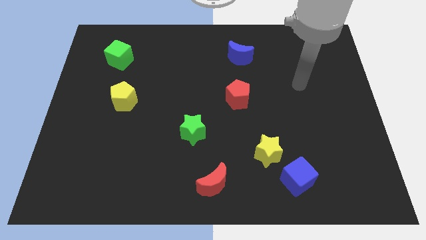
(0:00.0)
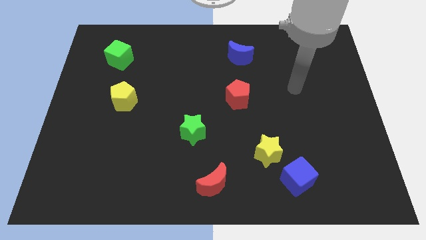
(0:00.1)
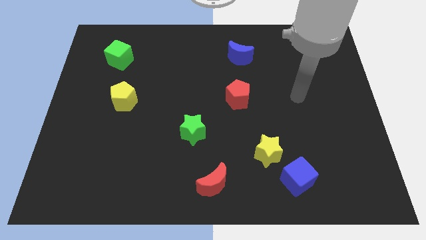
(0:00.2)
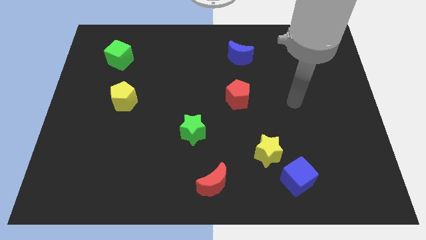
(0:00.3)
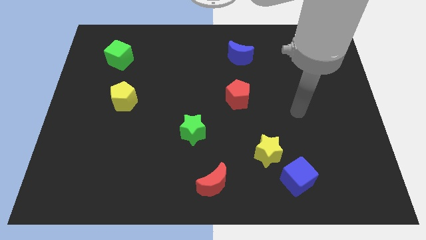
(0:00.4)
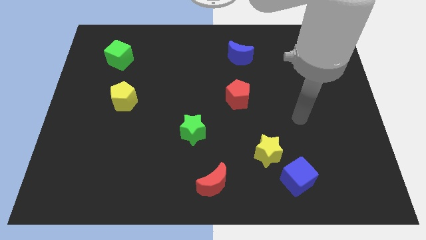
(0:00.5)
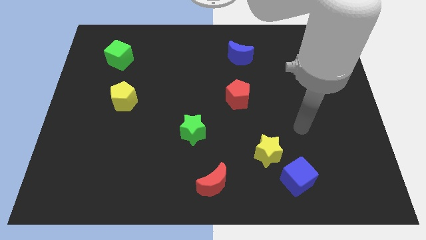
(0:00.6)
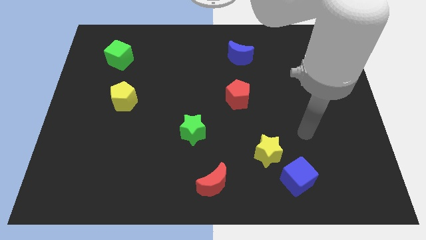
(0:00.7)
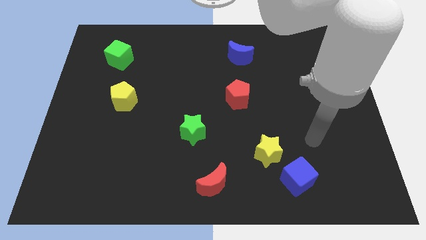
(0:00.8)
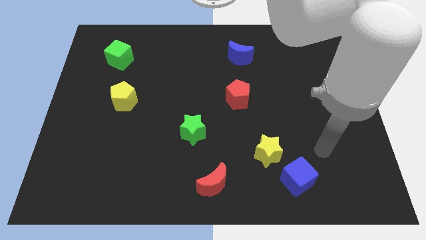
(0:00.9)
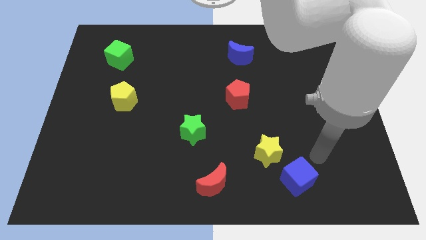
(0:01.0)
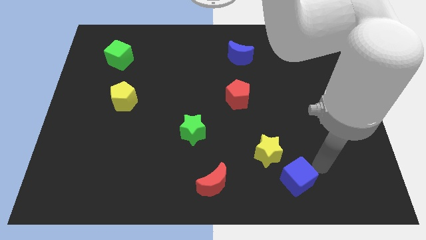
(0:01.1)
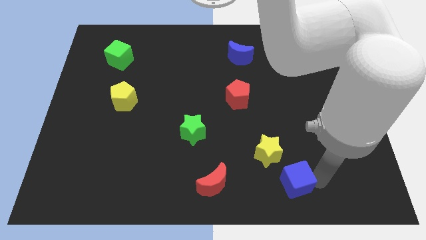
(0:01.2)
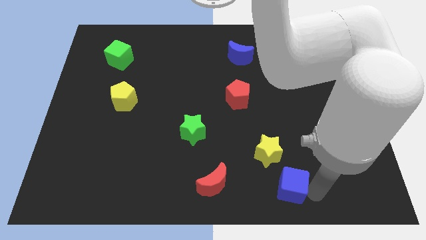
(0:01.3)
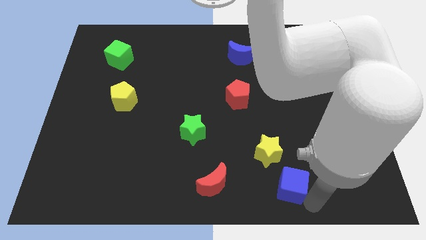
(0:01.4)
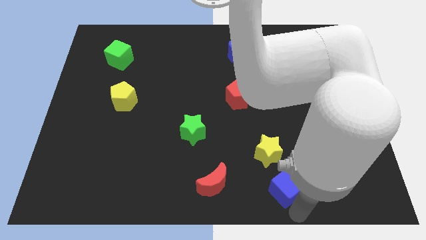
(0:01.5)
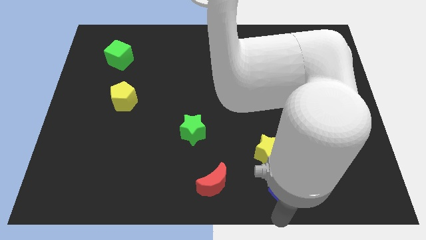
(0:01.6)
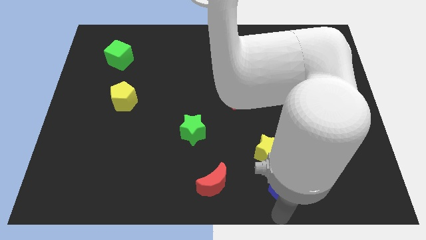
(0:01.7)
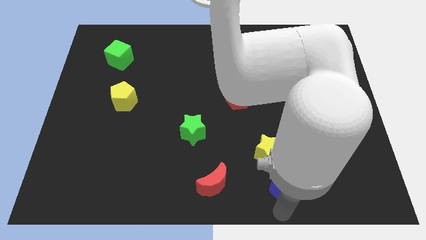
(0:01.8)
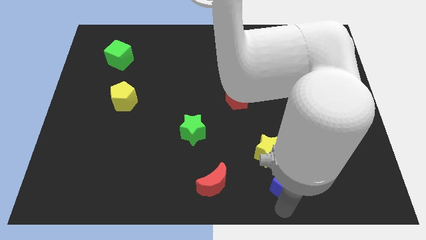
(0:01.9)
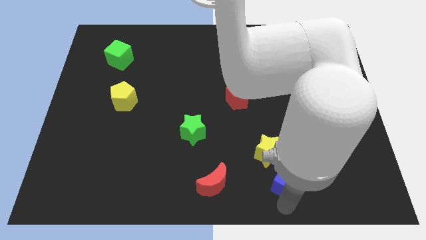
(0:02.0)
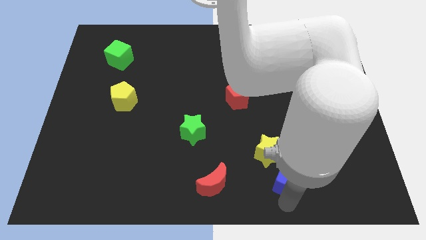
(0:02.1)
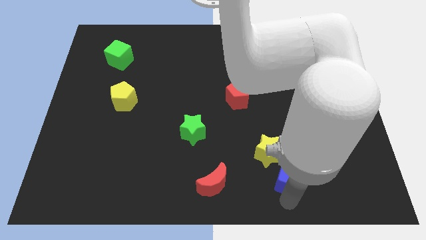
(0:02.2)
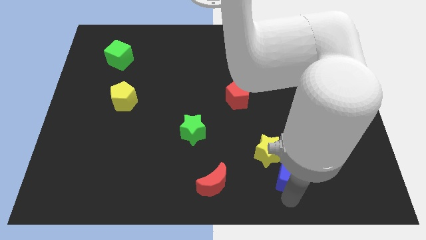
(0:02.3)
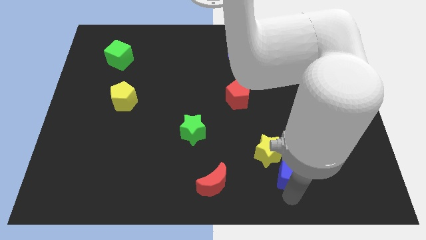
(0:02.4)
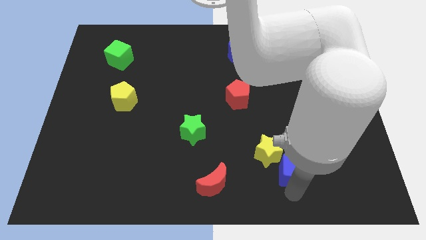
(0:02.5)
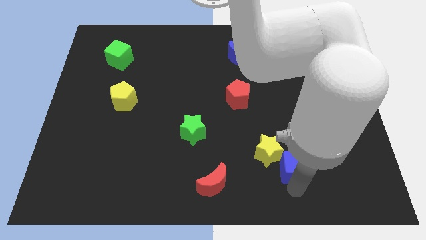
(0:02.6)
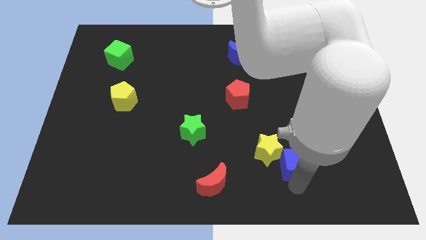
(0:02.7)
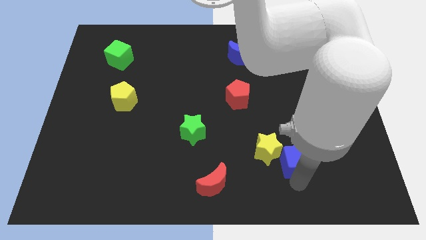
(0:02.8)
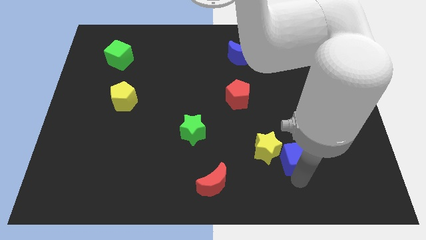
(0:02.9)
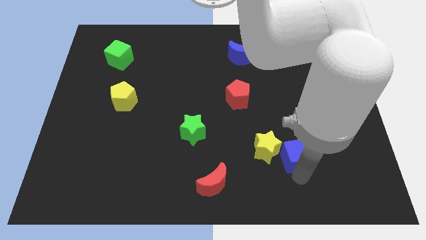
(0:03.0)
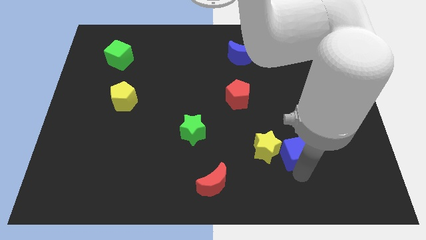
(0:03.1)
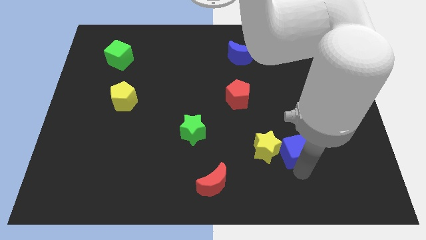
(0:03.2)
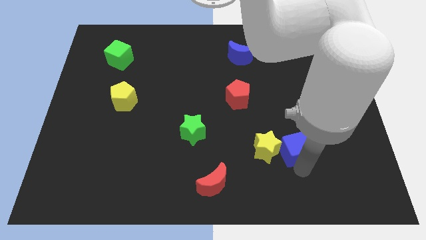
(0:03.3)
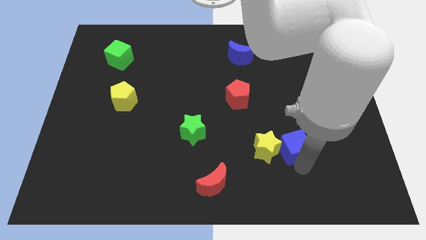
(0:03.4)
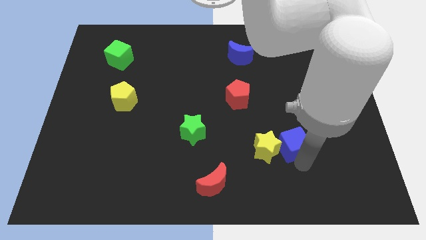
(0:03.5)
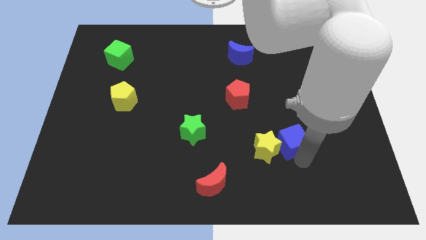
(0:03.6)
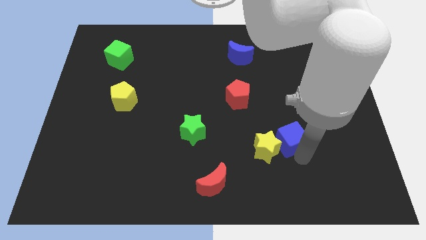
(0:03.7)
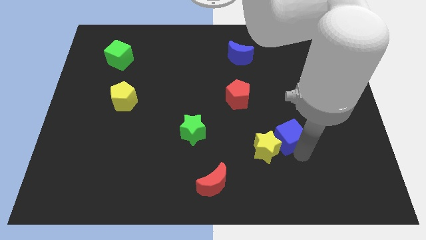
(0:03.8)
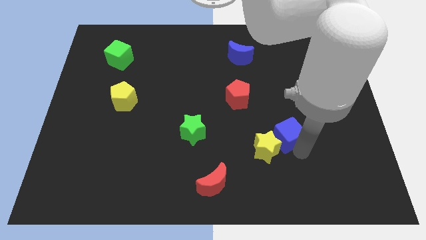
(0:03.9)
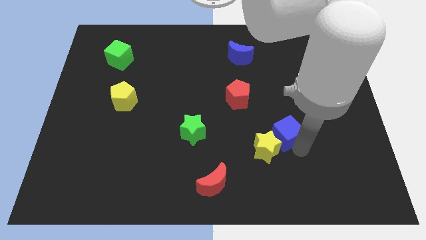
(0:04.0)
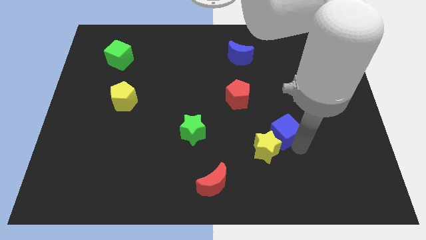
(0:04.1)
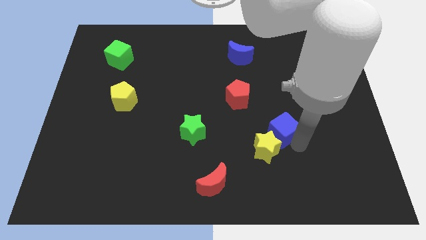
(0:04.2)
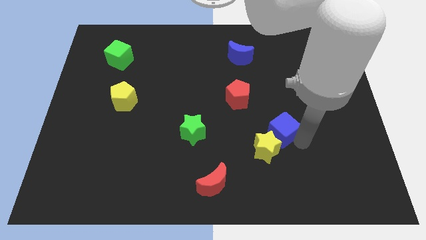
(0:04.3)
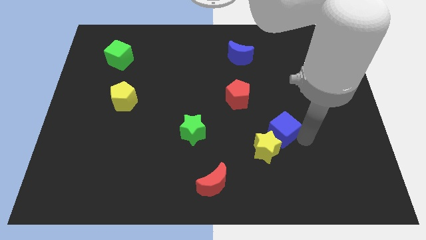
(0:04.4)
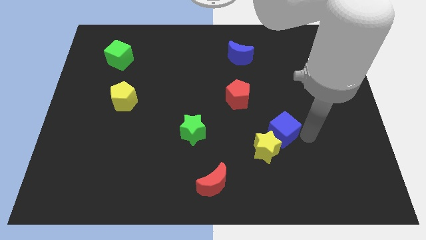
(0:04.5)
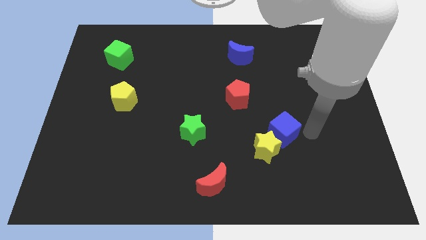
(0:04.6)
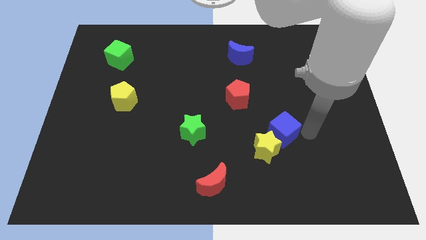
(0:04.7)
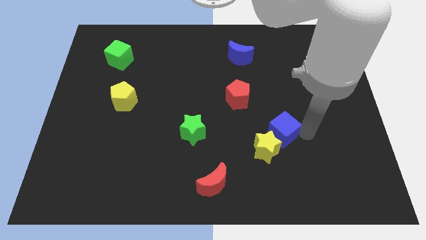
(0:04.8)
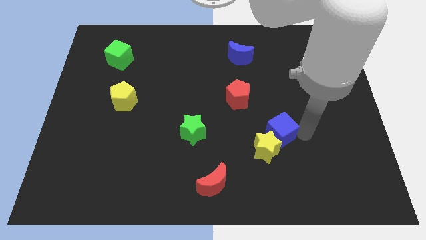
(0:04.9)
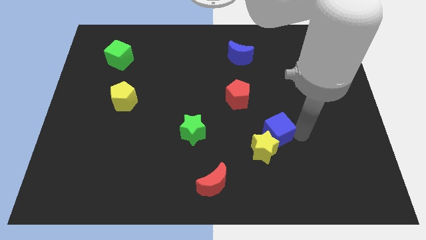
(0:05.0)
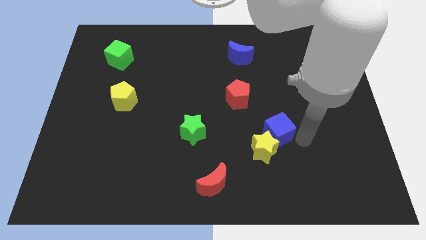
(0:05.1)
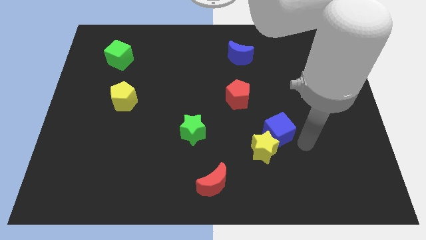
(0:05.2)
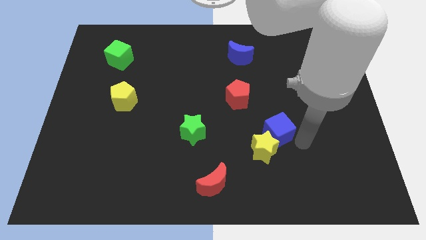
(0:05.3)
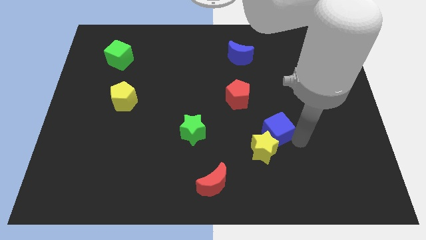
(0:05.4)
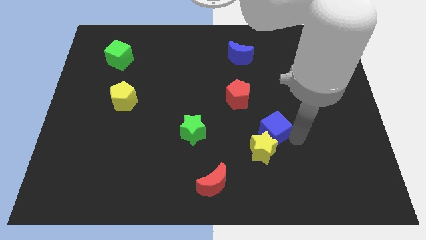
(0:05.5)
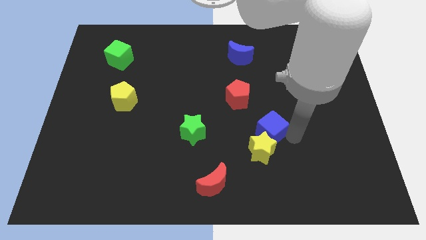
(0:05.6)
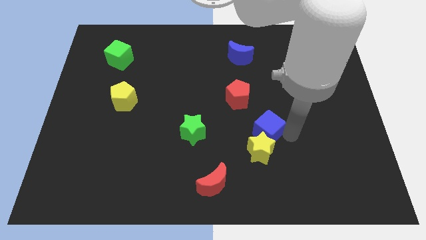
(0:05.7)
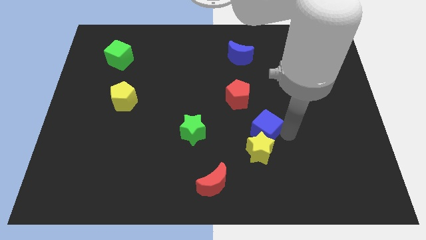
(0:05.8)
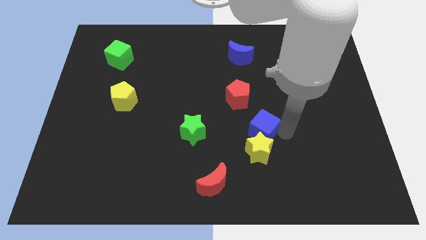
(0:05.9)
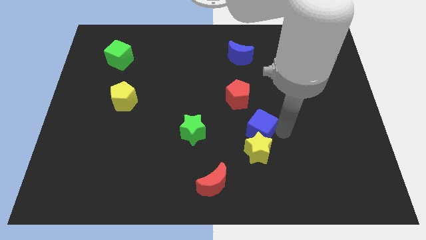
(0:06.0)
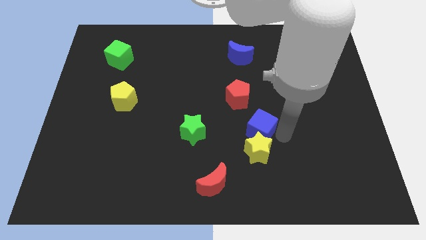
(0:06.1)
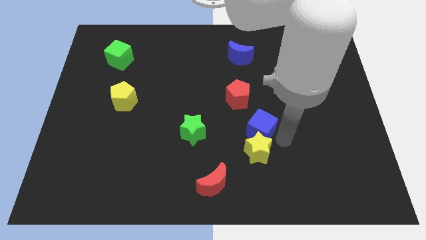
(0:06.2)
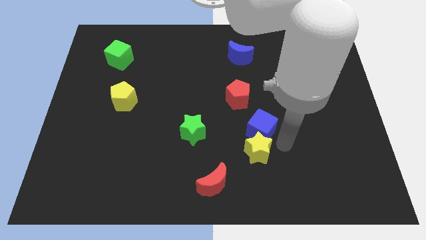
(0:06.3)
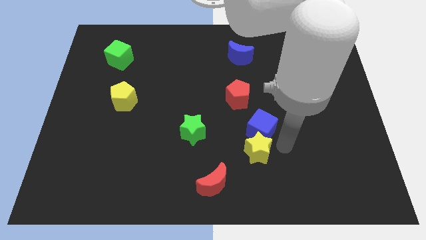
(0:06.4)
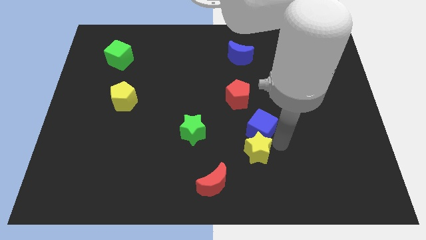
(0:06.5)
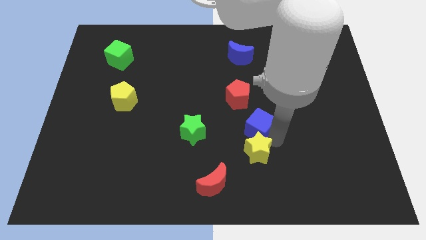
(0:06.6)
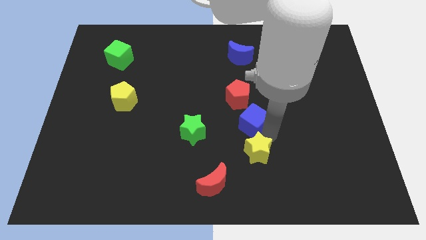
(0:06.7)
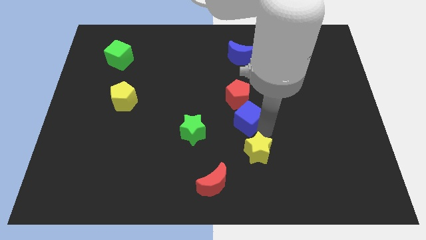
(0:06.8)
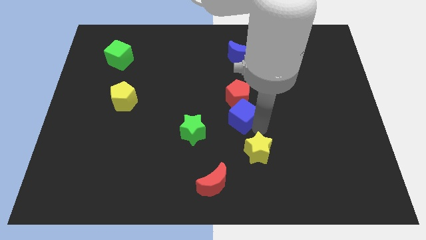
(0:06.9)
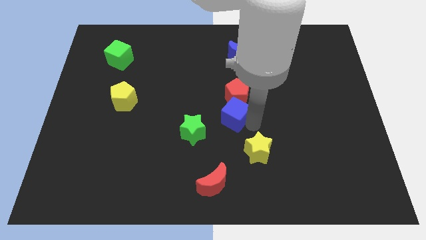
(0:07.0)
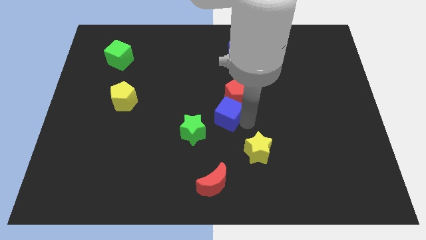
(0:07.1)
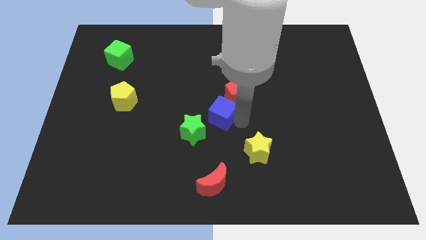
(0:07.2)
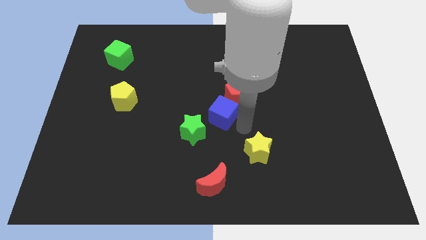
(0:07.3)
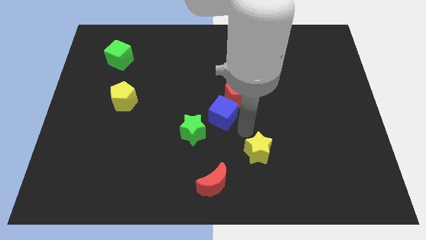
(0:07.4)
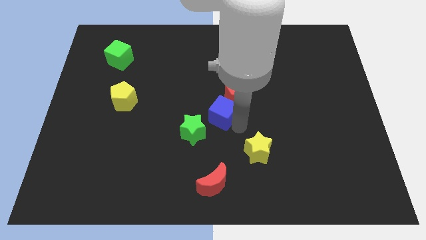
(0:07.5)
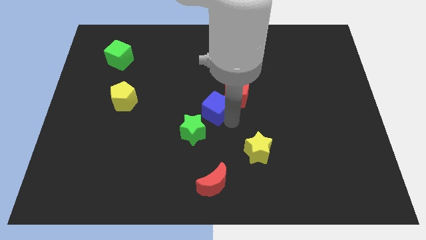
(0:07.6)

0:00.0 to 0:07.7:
put the blue cube left of the red pentagon
